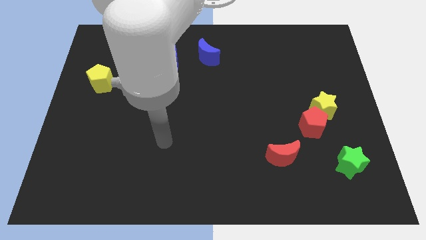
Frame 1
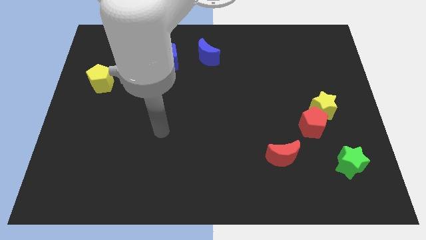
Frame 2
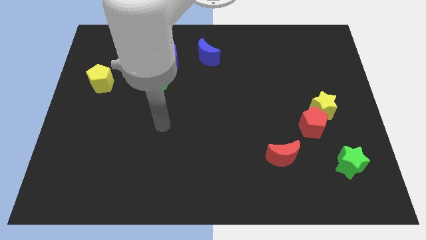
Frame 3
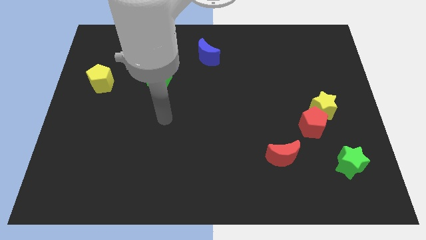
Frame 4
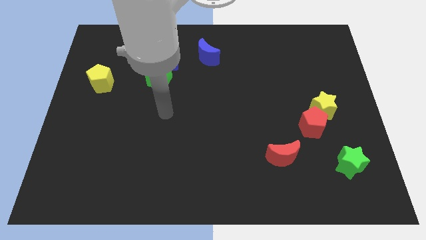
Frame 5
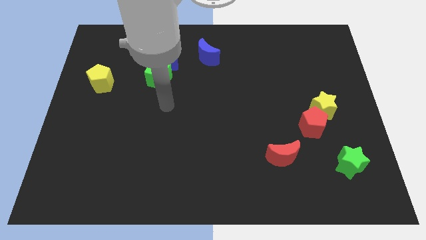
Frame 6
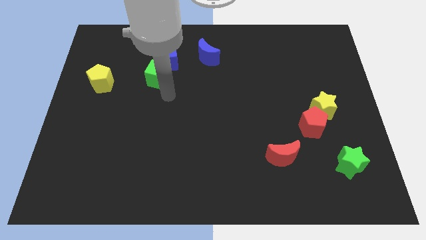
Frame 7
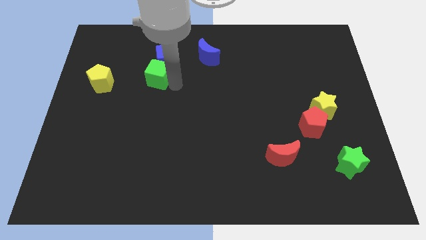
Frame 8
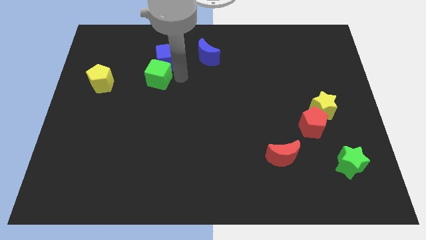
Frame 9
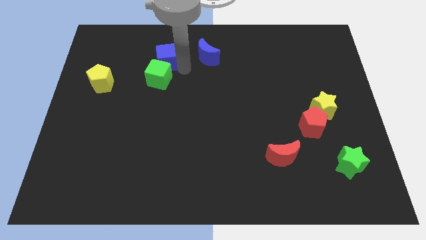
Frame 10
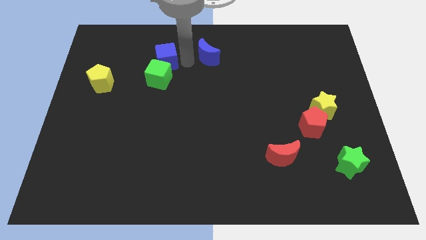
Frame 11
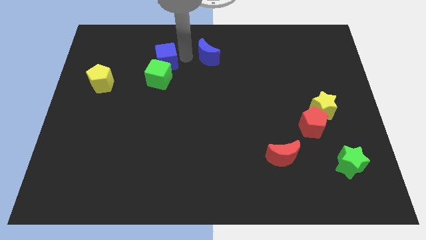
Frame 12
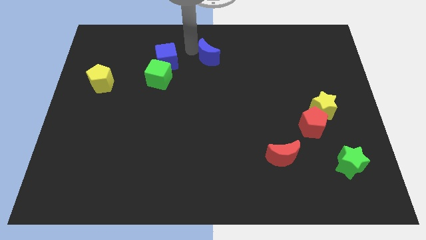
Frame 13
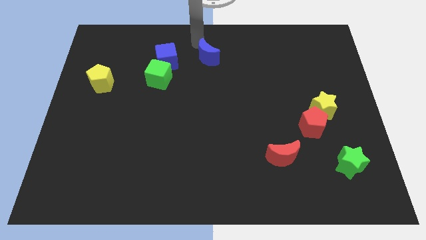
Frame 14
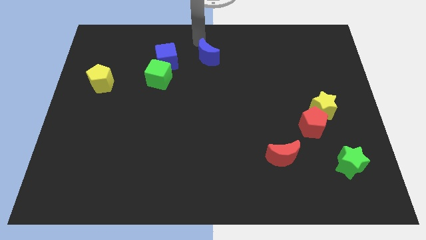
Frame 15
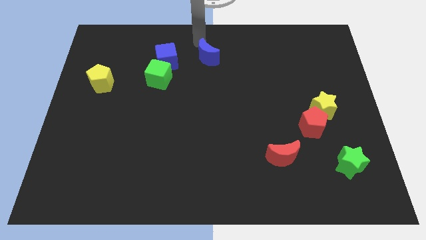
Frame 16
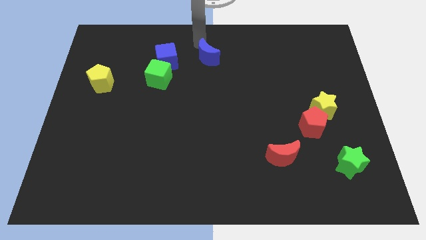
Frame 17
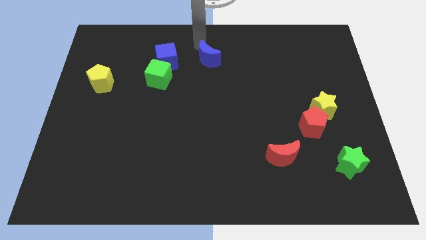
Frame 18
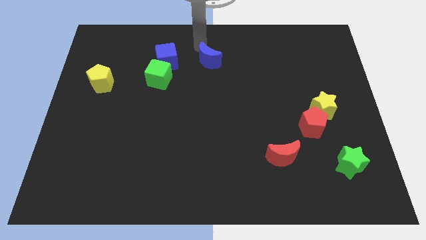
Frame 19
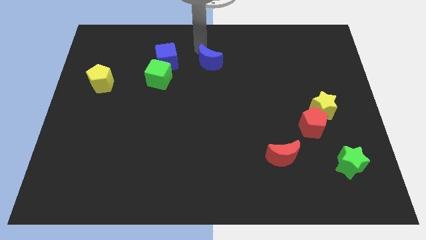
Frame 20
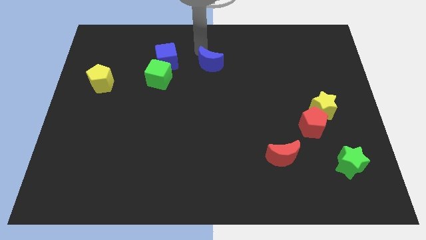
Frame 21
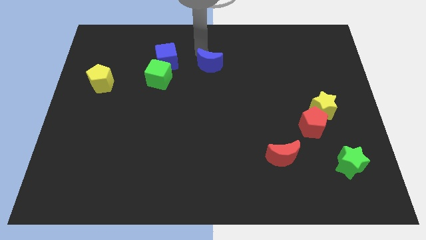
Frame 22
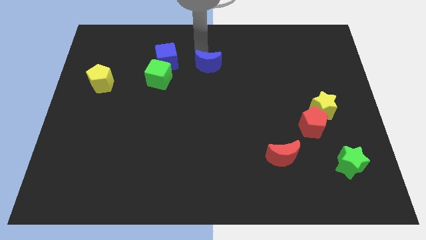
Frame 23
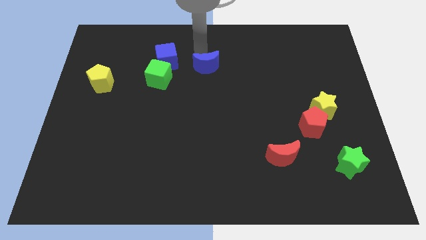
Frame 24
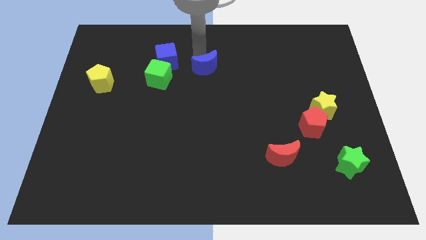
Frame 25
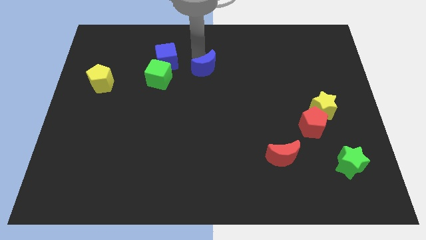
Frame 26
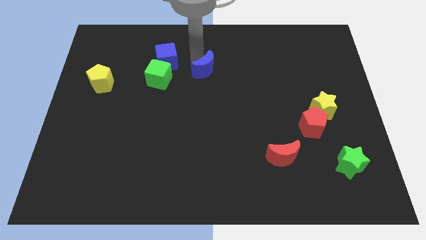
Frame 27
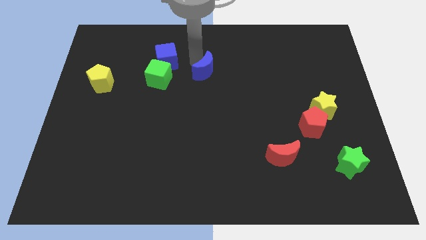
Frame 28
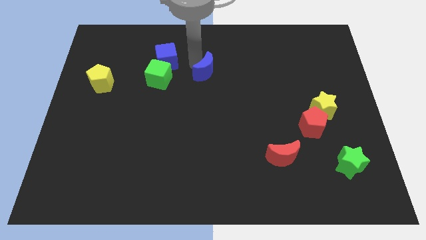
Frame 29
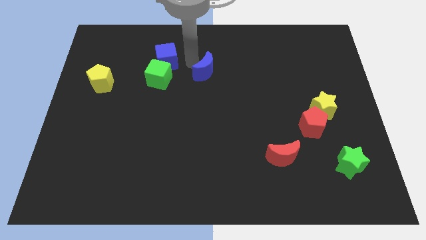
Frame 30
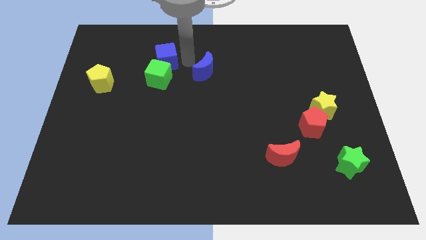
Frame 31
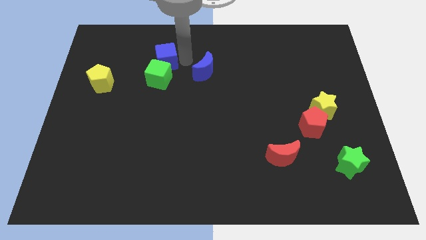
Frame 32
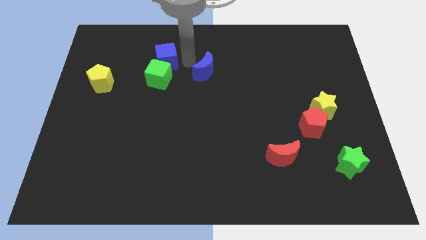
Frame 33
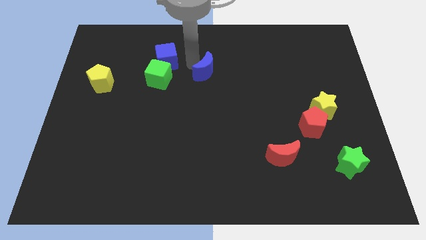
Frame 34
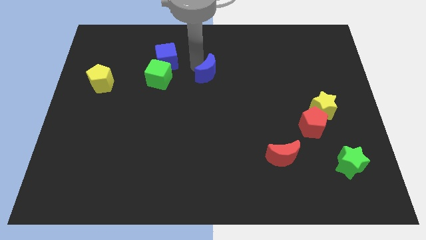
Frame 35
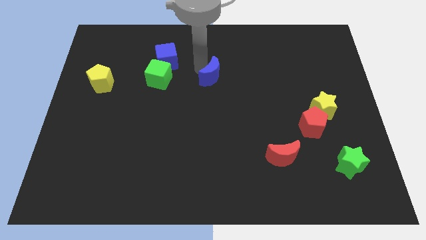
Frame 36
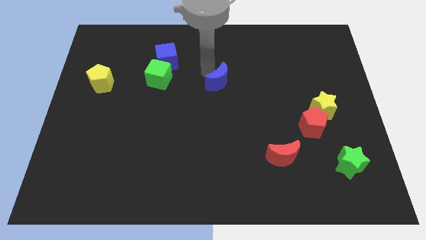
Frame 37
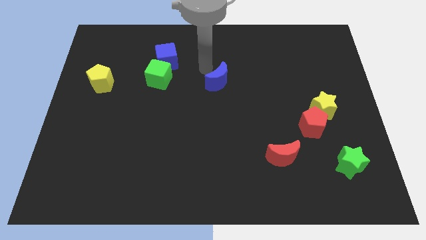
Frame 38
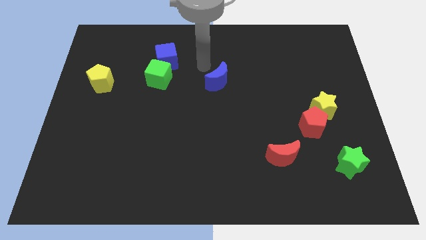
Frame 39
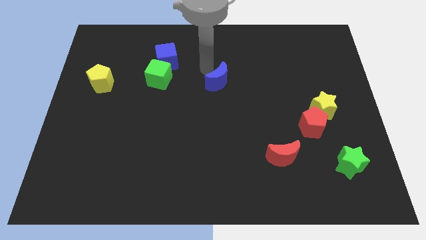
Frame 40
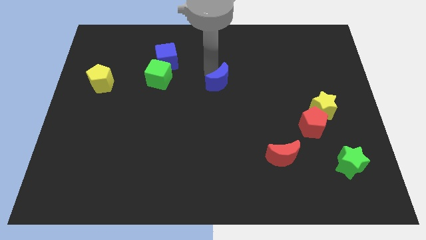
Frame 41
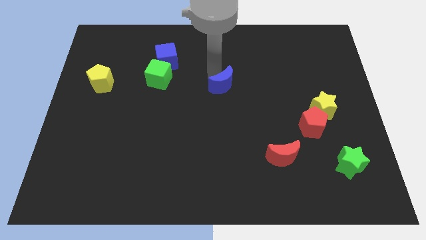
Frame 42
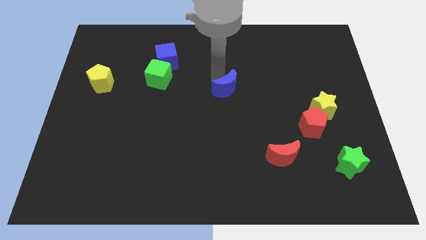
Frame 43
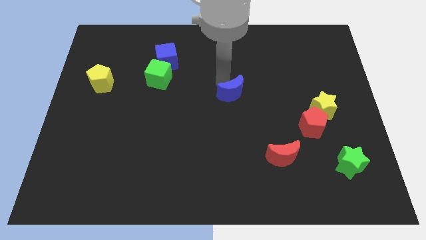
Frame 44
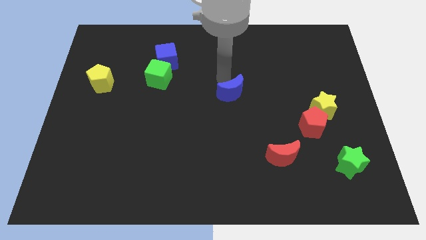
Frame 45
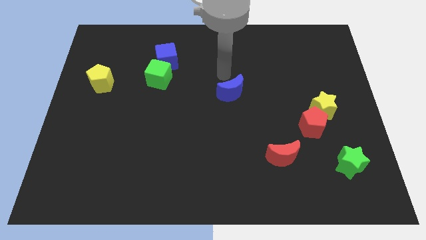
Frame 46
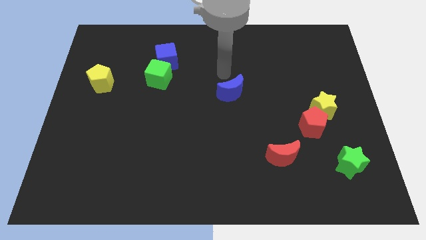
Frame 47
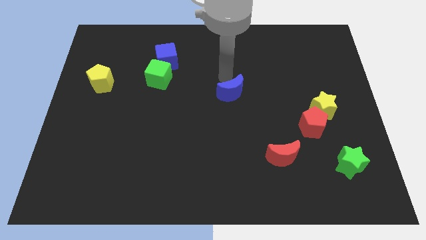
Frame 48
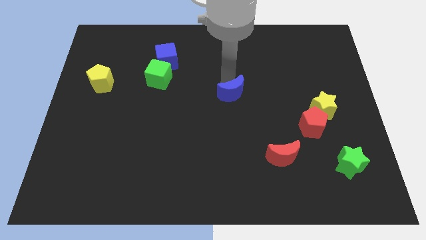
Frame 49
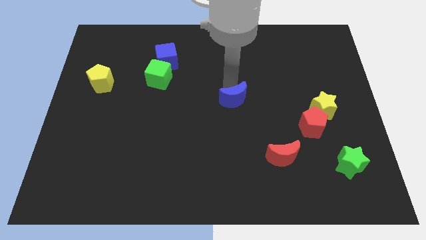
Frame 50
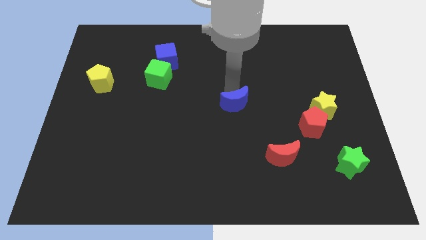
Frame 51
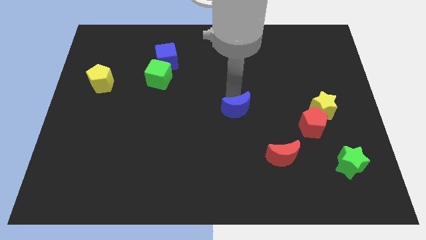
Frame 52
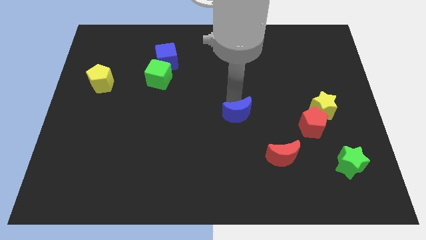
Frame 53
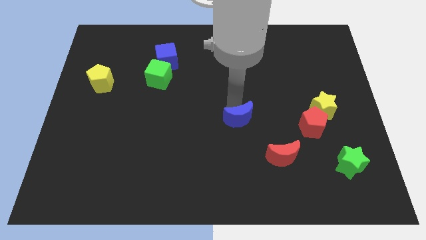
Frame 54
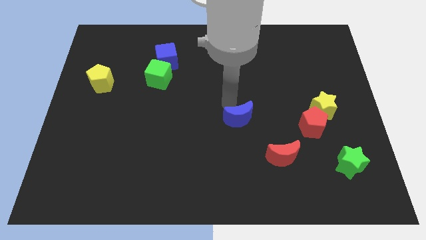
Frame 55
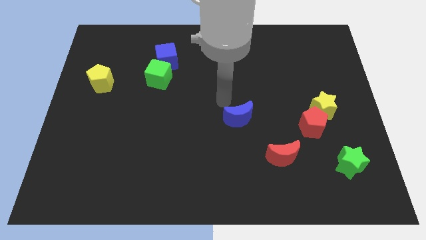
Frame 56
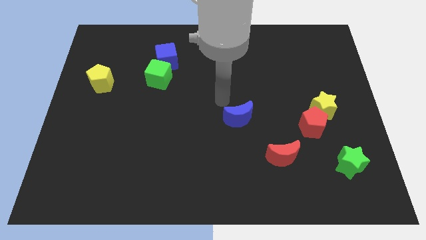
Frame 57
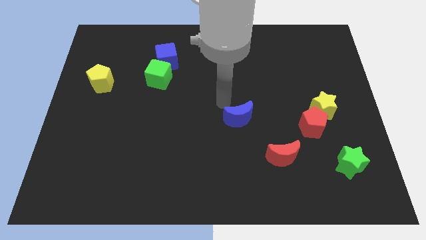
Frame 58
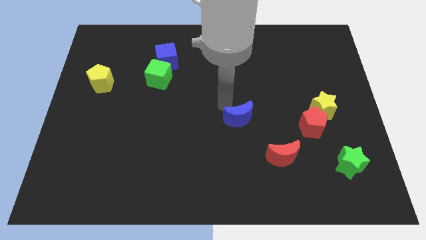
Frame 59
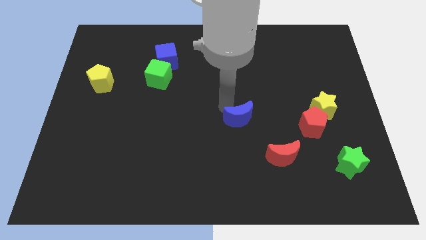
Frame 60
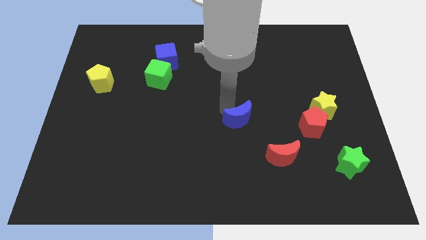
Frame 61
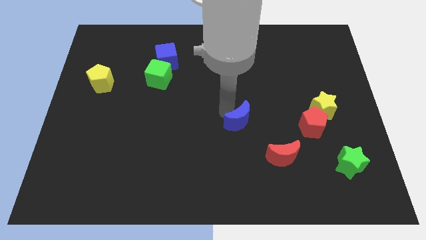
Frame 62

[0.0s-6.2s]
put the blue moon to the top left side of the red moon

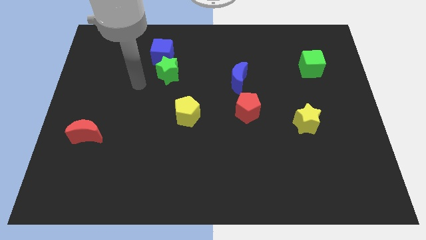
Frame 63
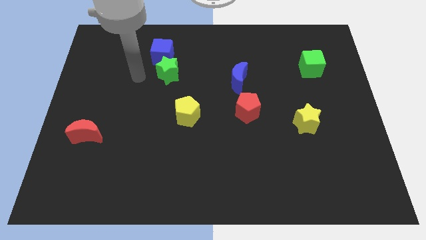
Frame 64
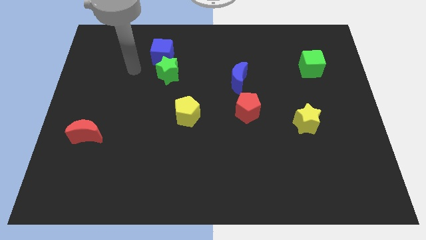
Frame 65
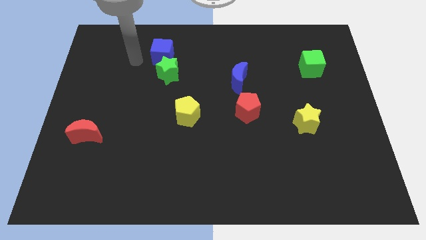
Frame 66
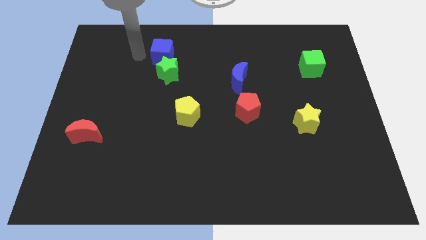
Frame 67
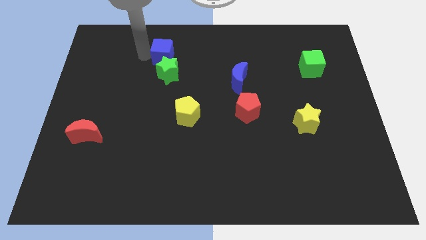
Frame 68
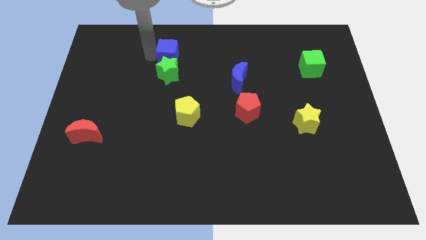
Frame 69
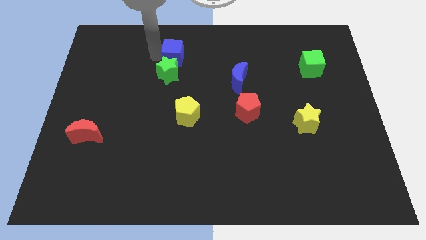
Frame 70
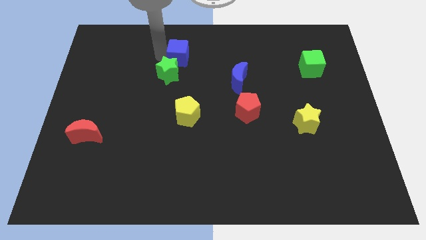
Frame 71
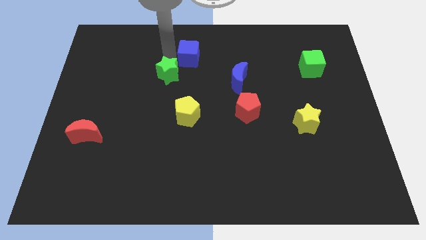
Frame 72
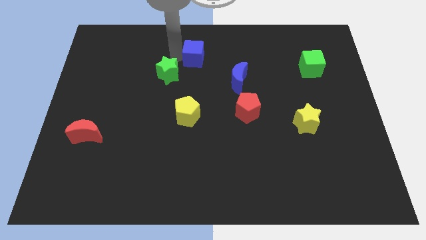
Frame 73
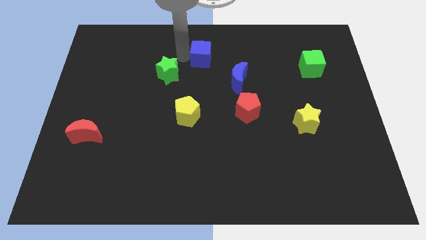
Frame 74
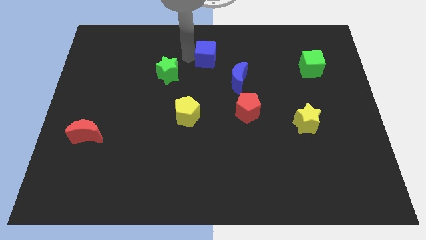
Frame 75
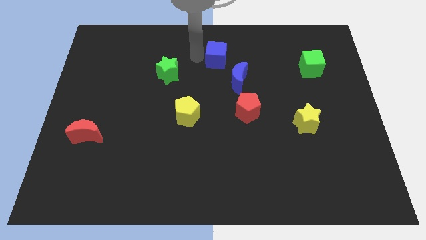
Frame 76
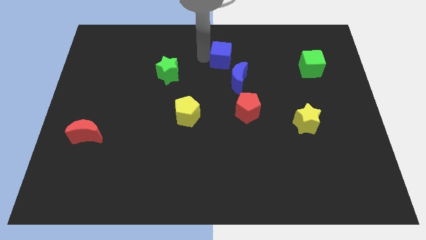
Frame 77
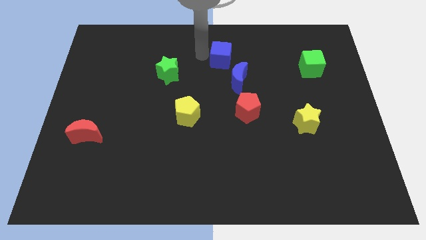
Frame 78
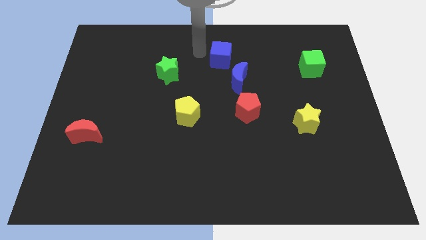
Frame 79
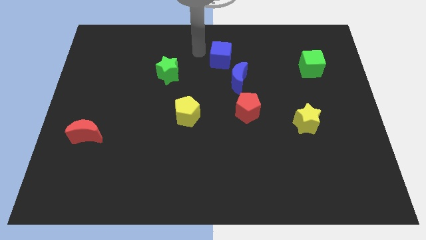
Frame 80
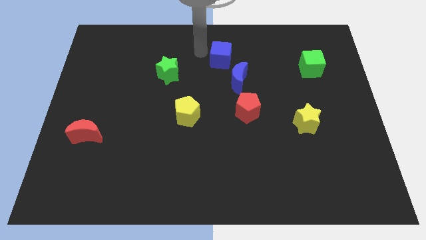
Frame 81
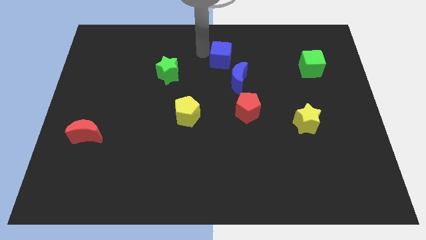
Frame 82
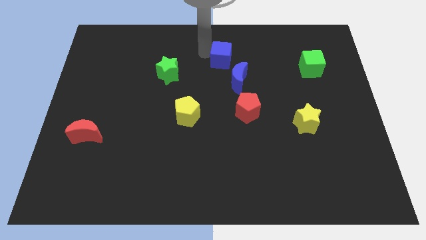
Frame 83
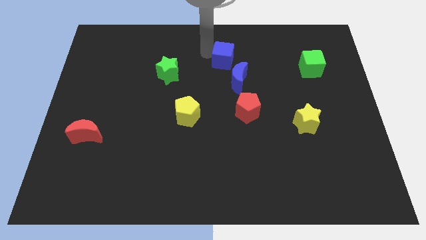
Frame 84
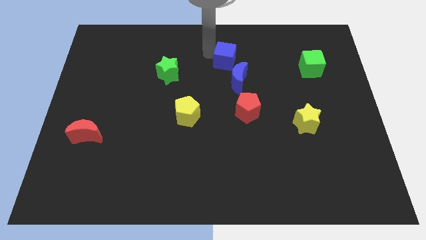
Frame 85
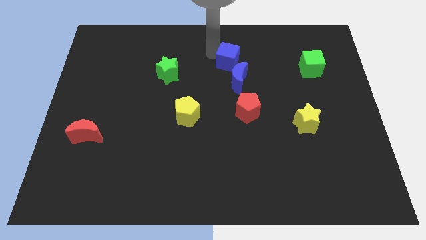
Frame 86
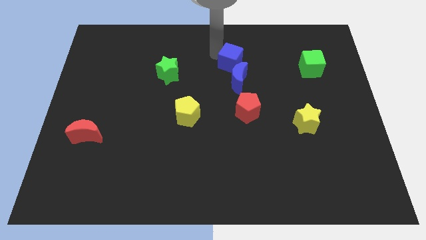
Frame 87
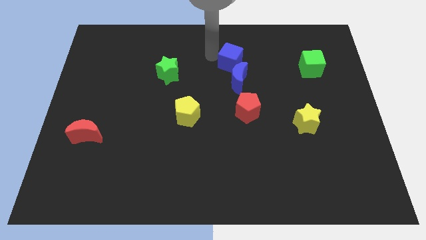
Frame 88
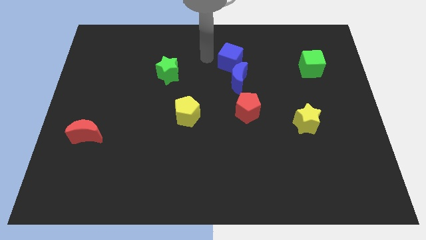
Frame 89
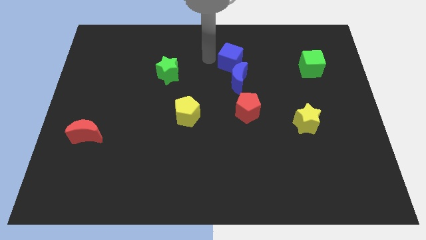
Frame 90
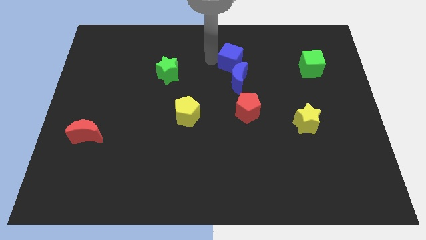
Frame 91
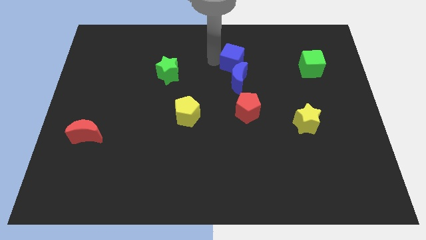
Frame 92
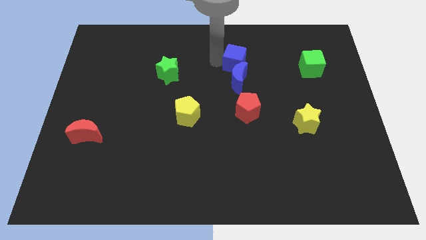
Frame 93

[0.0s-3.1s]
move the blue cube to the top right side of the blue moon
